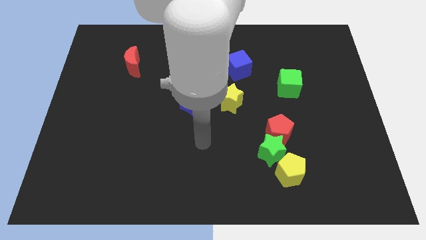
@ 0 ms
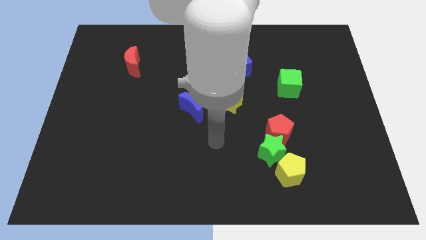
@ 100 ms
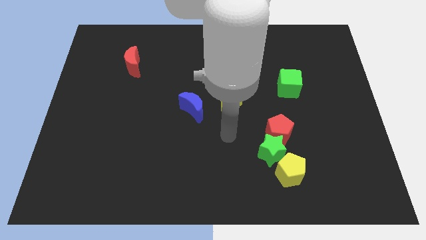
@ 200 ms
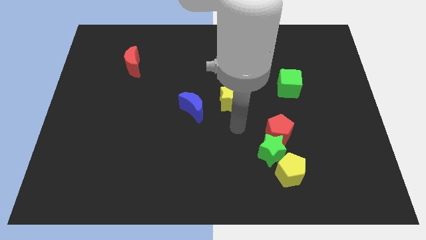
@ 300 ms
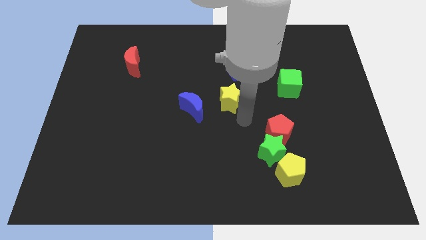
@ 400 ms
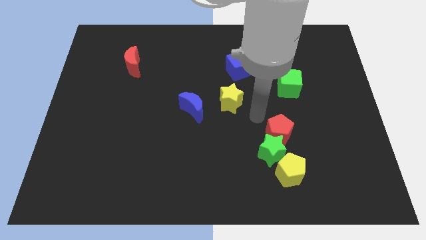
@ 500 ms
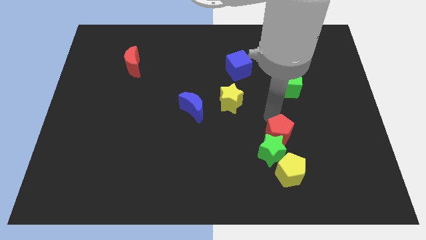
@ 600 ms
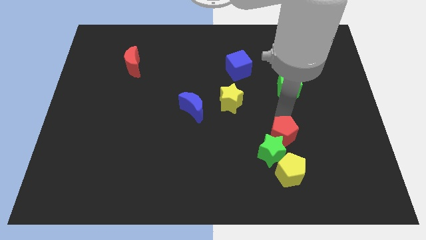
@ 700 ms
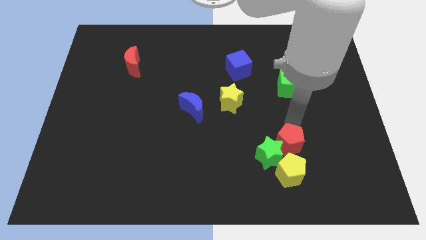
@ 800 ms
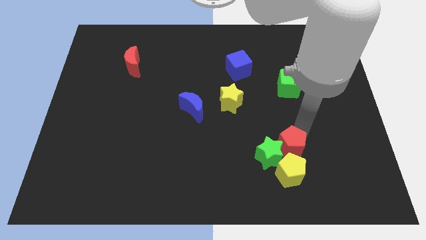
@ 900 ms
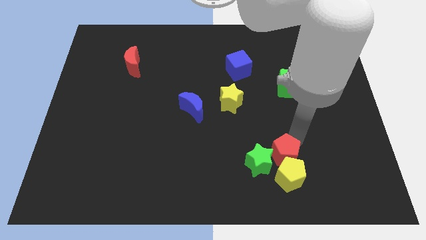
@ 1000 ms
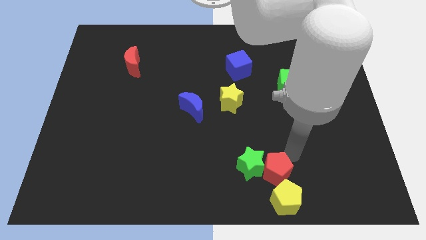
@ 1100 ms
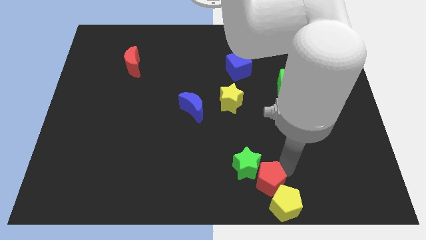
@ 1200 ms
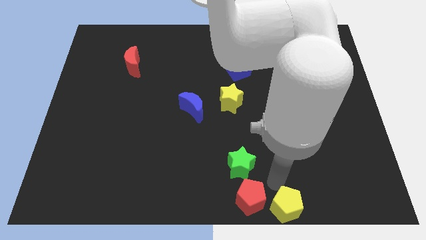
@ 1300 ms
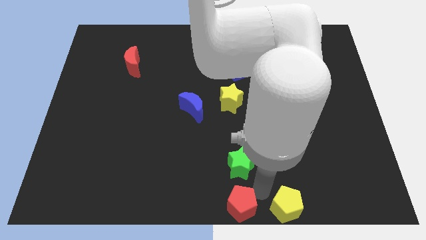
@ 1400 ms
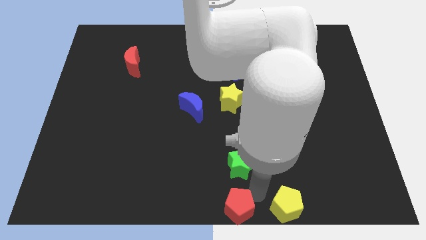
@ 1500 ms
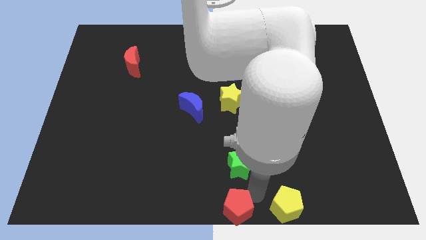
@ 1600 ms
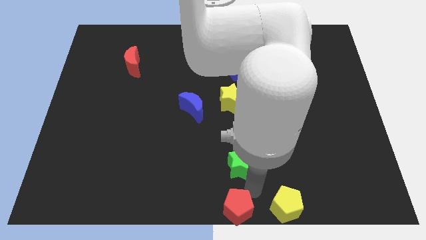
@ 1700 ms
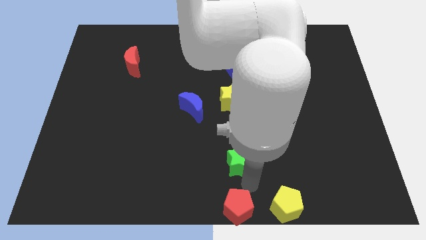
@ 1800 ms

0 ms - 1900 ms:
pull the green star apart from the red pentagon and yellow pentagon

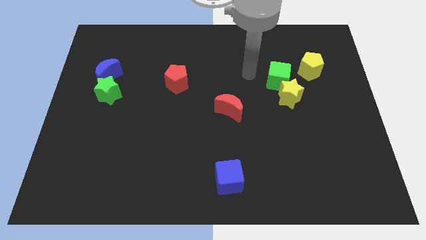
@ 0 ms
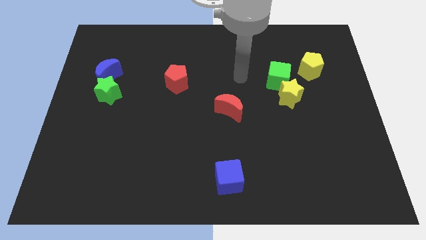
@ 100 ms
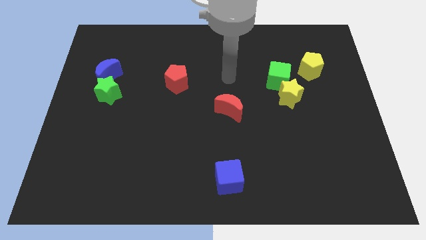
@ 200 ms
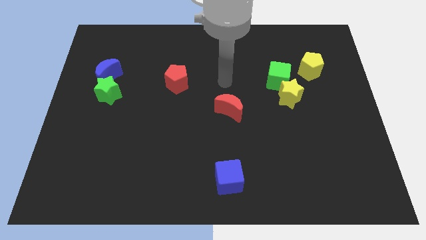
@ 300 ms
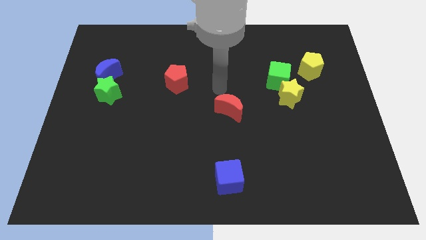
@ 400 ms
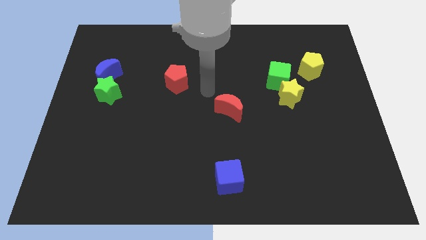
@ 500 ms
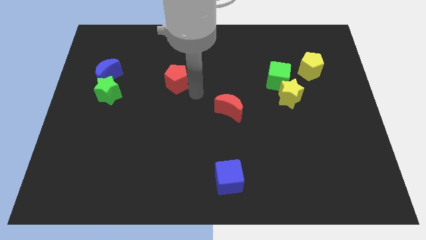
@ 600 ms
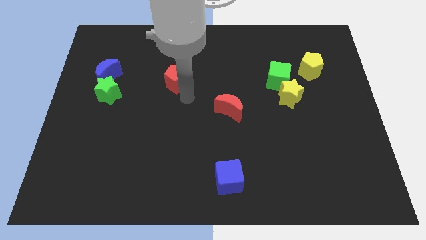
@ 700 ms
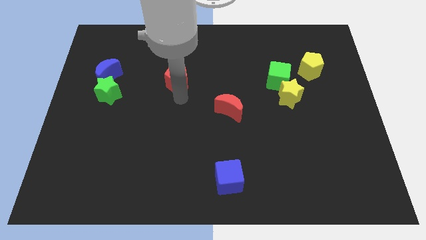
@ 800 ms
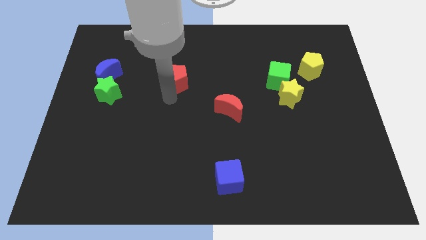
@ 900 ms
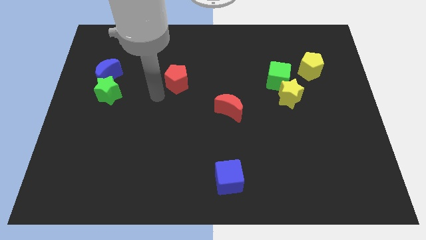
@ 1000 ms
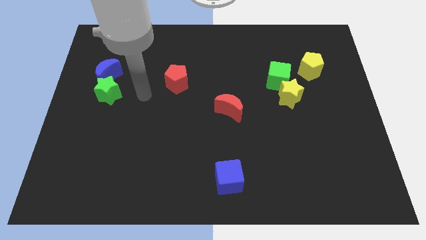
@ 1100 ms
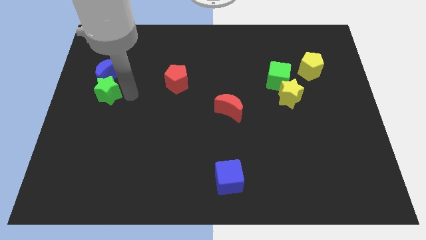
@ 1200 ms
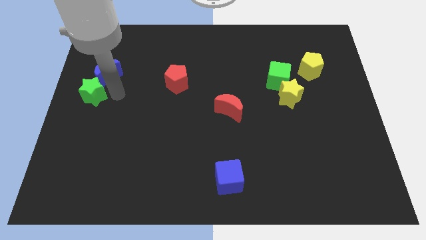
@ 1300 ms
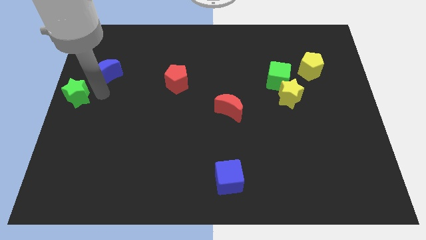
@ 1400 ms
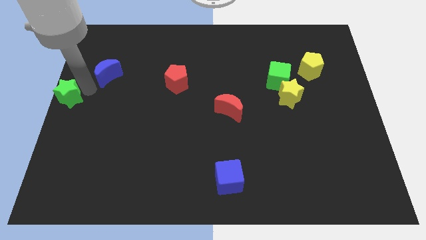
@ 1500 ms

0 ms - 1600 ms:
move the blue moon away from the green star

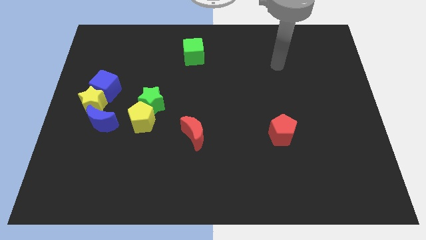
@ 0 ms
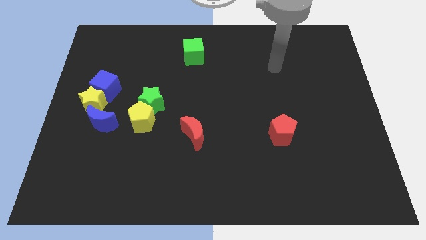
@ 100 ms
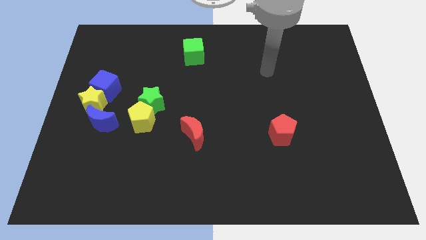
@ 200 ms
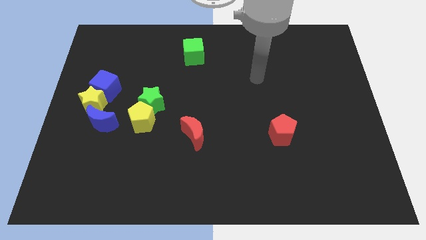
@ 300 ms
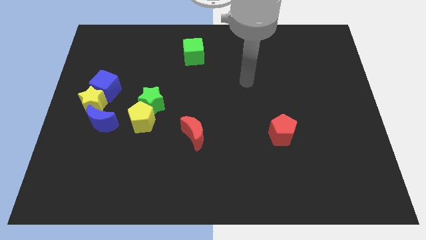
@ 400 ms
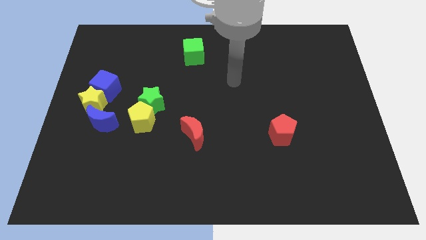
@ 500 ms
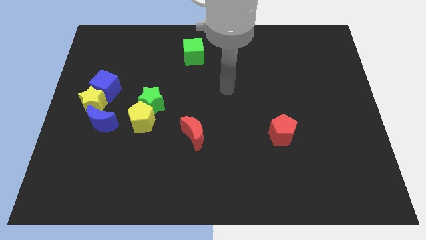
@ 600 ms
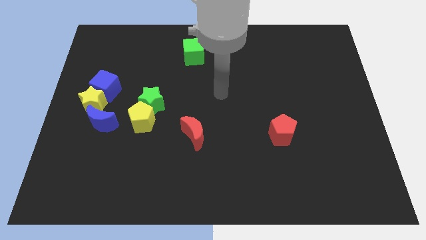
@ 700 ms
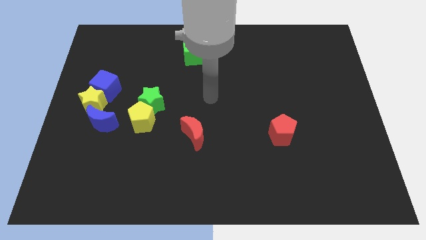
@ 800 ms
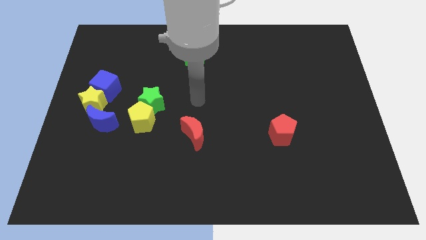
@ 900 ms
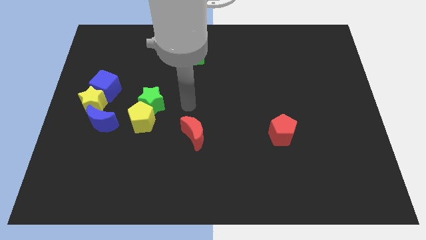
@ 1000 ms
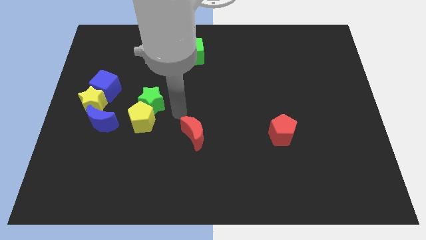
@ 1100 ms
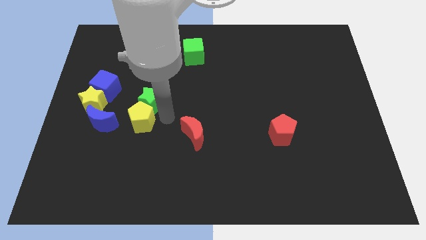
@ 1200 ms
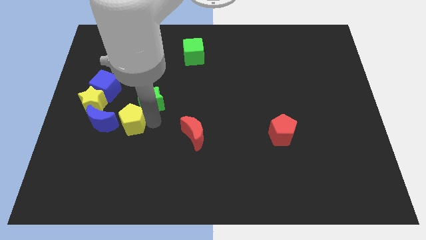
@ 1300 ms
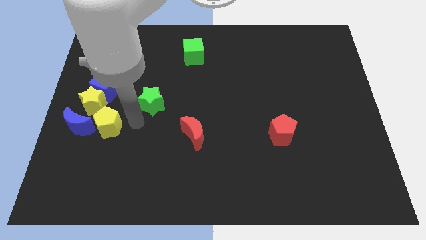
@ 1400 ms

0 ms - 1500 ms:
pull the green star apart from the yellow pentagon

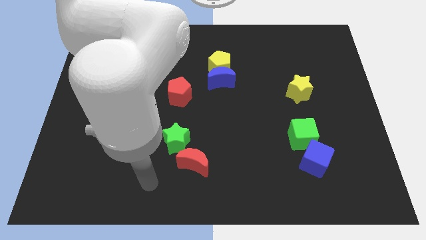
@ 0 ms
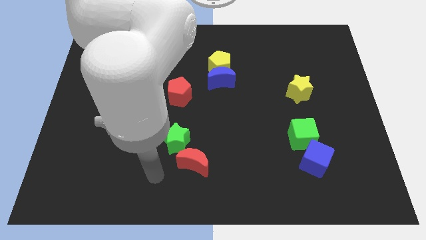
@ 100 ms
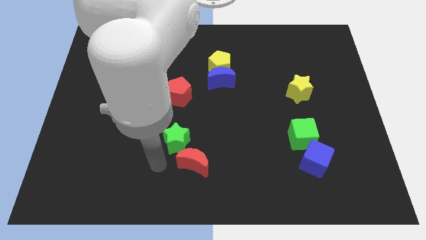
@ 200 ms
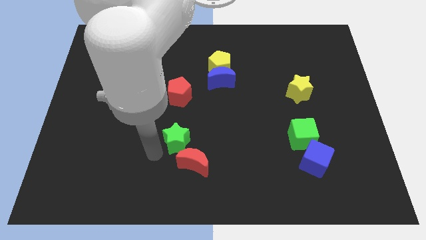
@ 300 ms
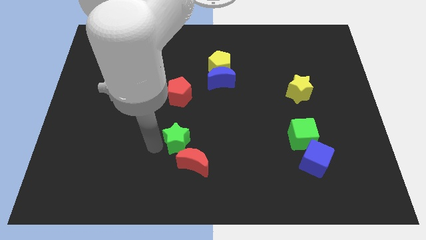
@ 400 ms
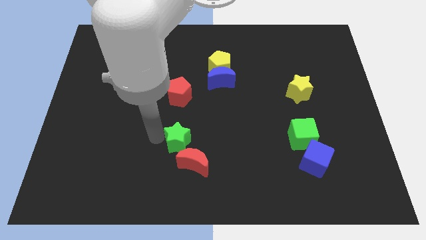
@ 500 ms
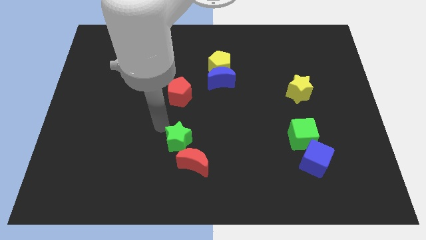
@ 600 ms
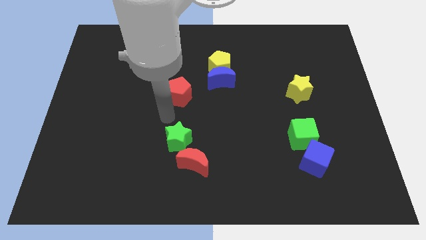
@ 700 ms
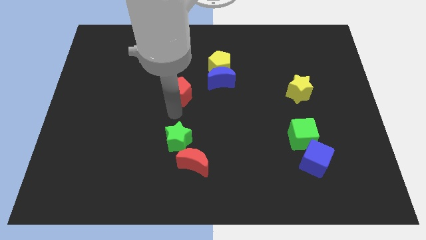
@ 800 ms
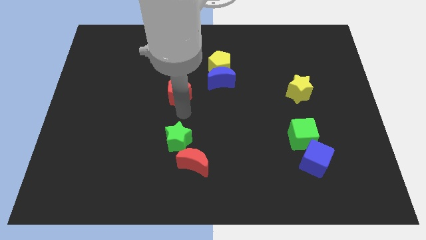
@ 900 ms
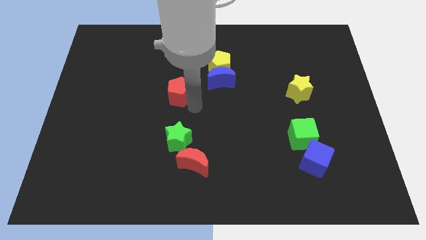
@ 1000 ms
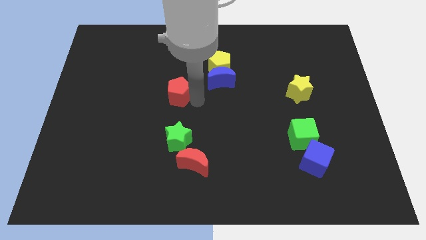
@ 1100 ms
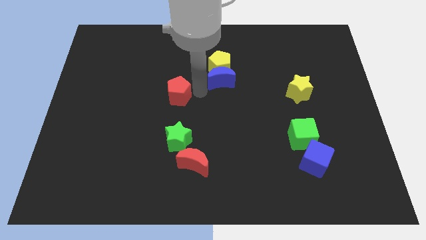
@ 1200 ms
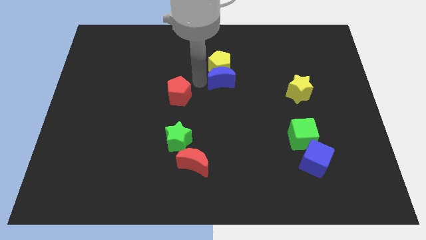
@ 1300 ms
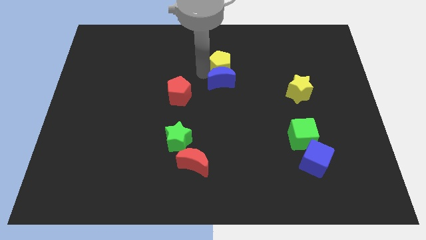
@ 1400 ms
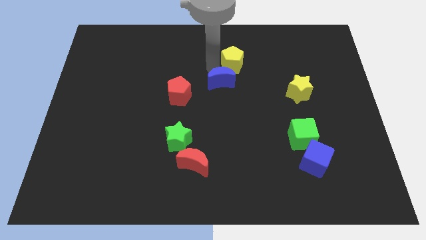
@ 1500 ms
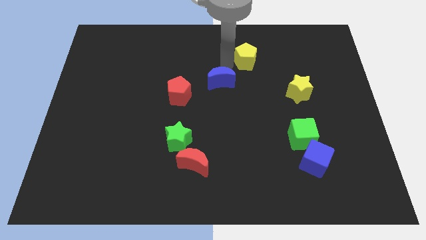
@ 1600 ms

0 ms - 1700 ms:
move the blue moon away from the yellow pentagon

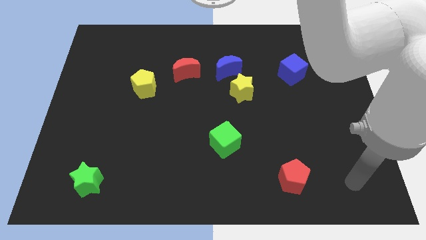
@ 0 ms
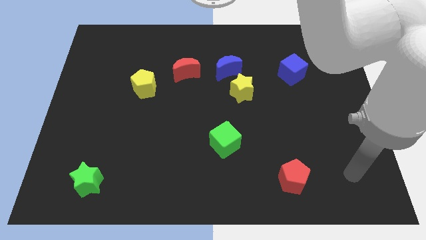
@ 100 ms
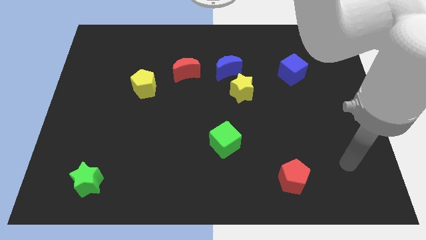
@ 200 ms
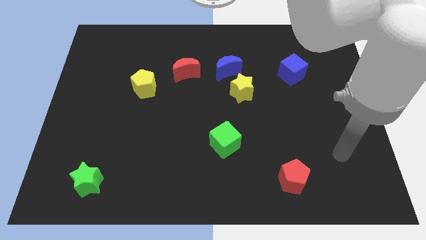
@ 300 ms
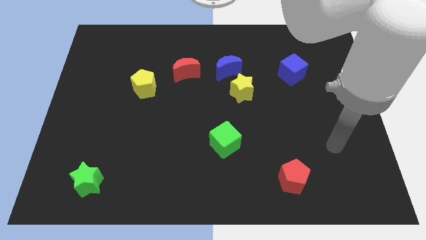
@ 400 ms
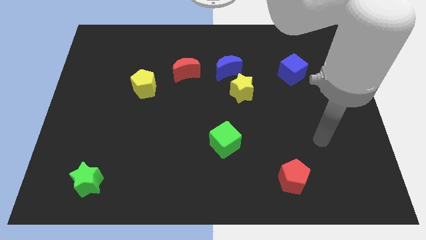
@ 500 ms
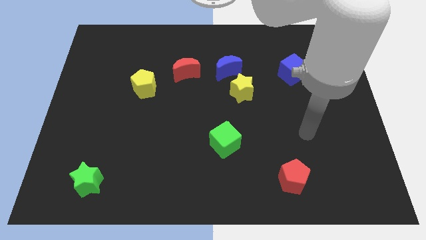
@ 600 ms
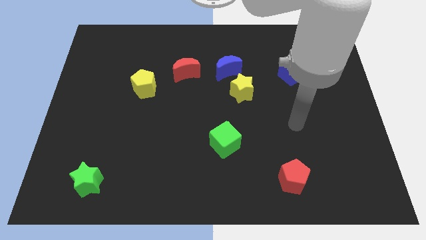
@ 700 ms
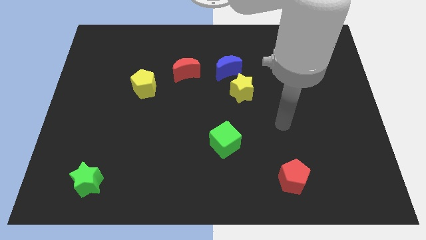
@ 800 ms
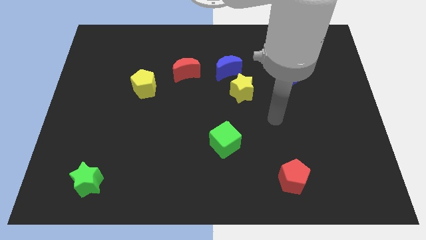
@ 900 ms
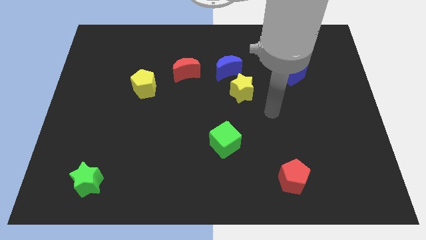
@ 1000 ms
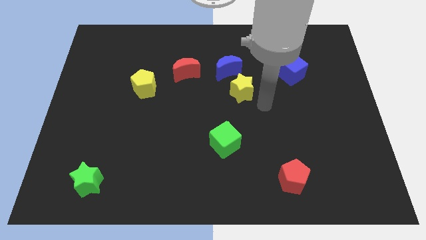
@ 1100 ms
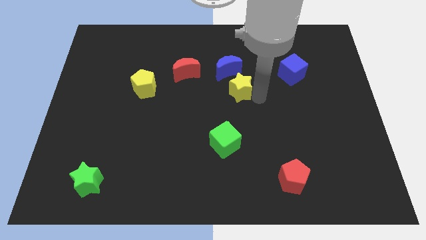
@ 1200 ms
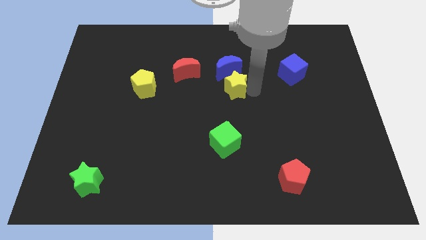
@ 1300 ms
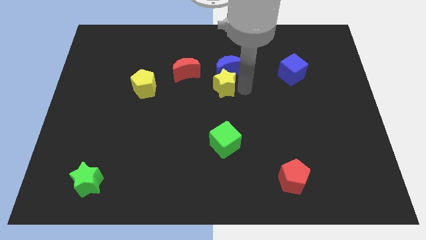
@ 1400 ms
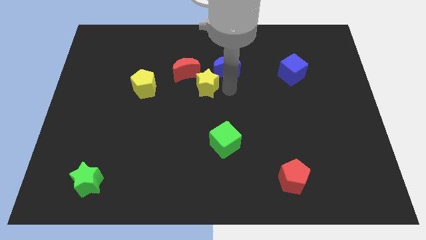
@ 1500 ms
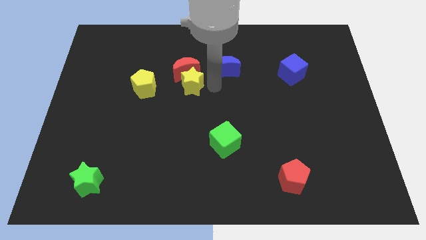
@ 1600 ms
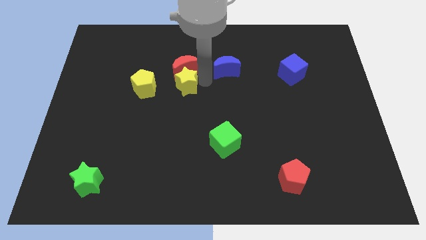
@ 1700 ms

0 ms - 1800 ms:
pull the blue moon apart from the yellow star

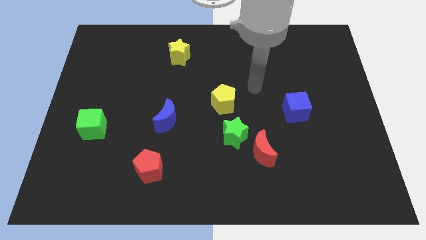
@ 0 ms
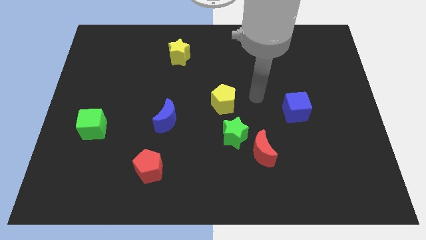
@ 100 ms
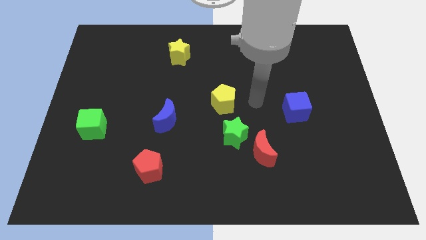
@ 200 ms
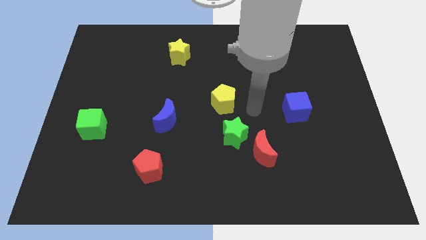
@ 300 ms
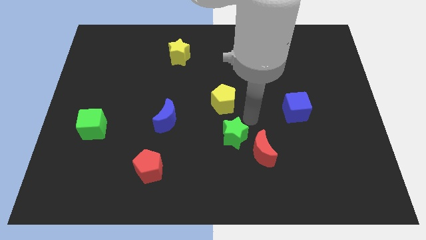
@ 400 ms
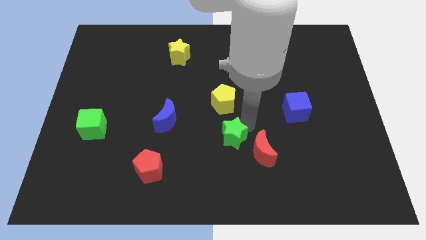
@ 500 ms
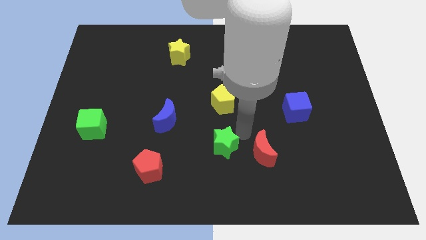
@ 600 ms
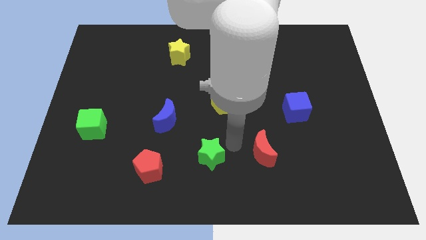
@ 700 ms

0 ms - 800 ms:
separate the red moon from the green star
